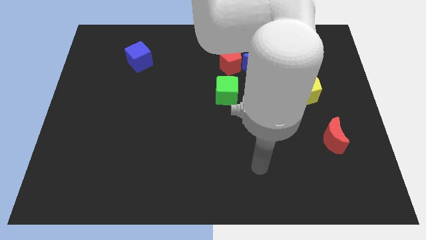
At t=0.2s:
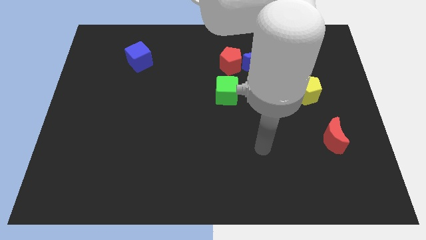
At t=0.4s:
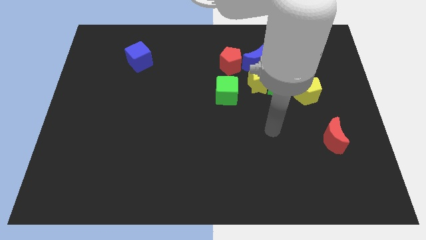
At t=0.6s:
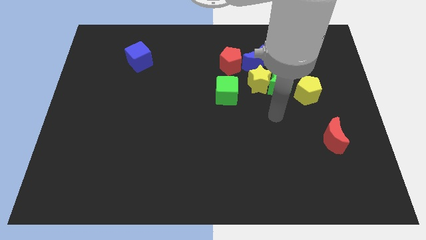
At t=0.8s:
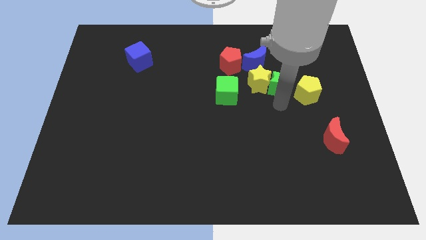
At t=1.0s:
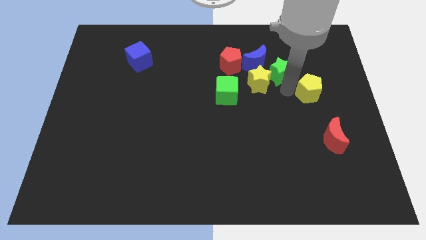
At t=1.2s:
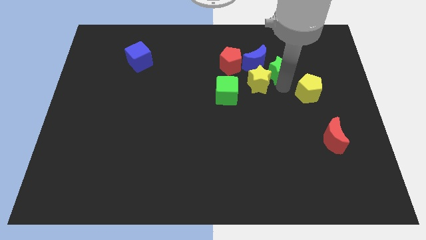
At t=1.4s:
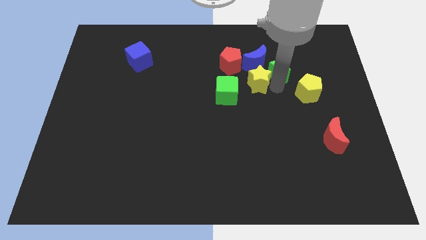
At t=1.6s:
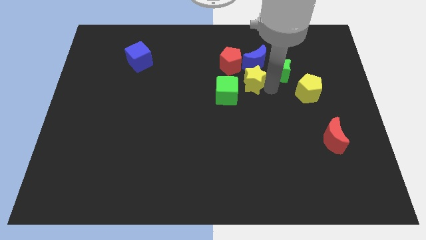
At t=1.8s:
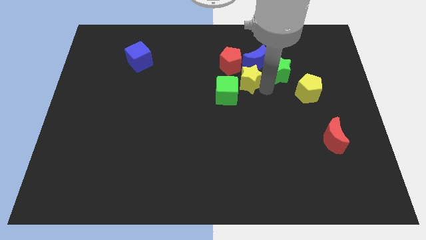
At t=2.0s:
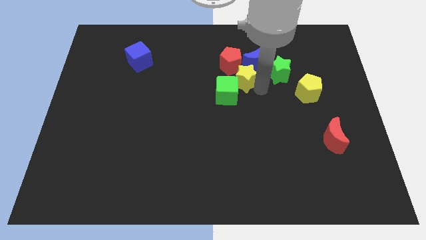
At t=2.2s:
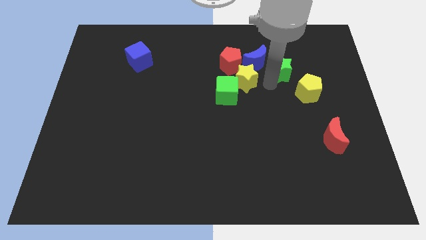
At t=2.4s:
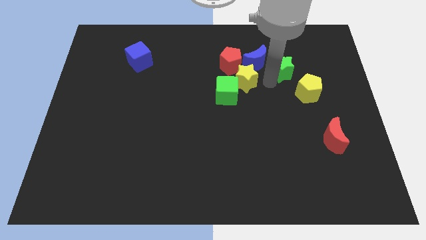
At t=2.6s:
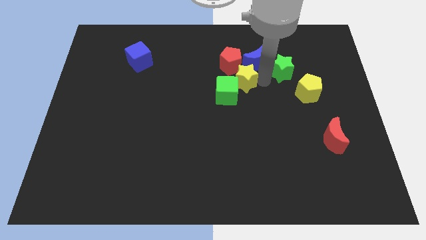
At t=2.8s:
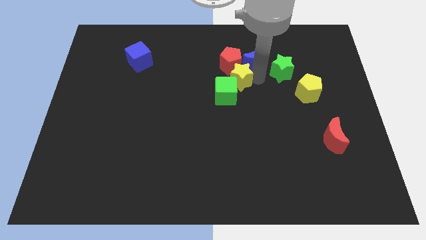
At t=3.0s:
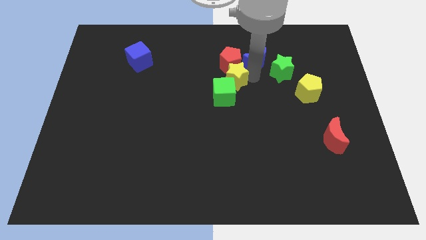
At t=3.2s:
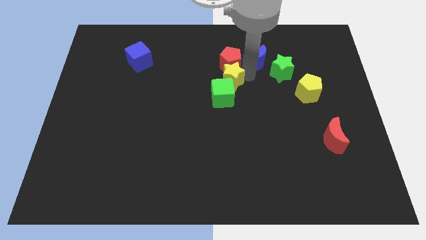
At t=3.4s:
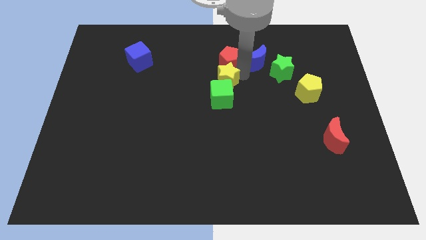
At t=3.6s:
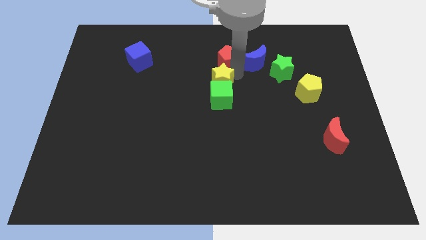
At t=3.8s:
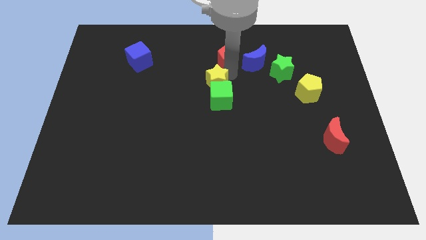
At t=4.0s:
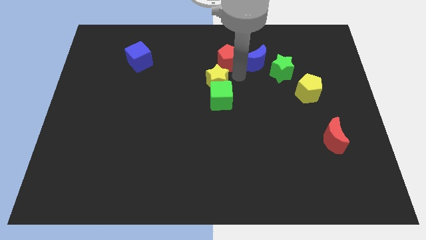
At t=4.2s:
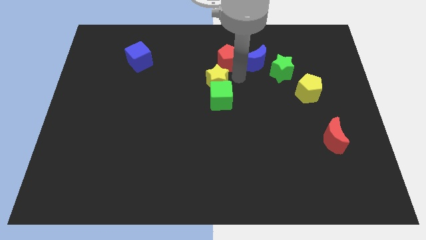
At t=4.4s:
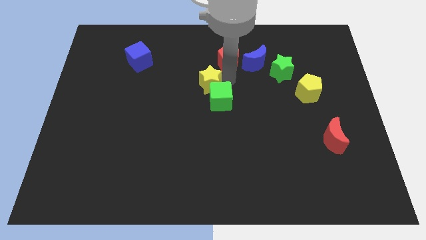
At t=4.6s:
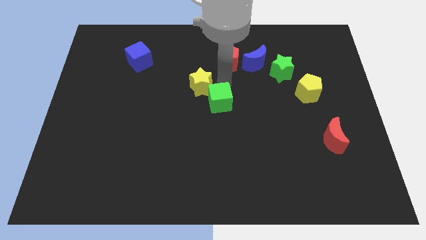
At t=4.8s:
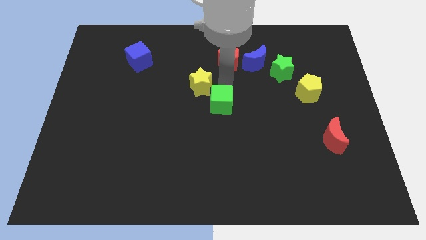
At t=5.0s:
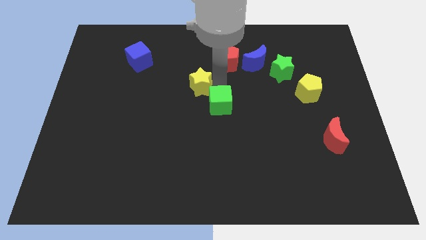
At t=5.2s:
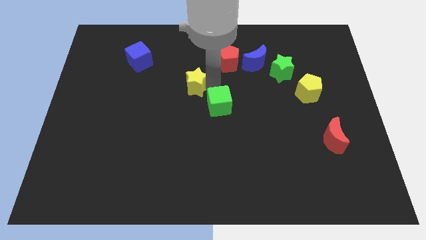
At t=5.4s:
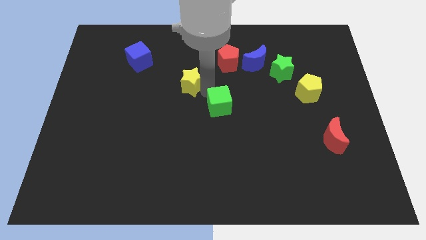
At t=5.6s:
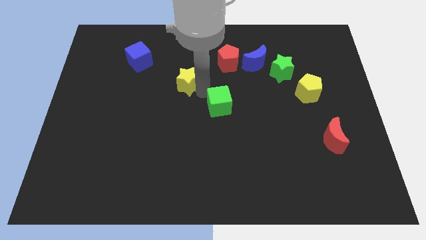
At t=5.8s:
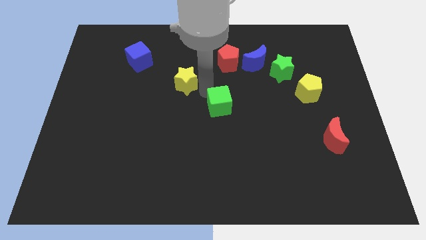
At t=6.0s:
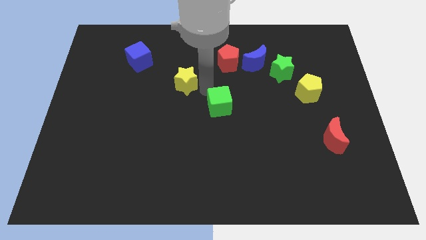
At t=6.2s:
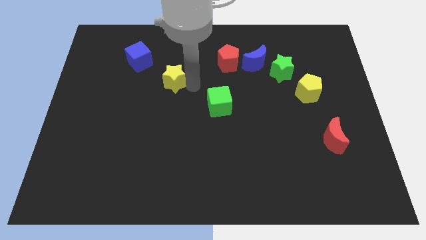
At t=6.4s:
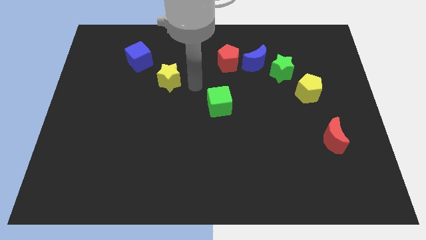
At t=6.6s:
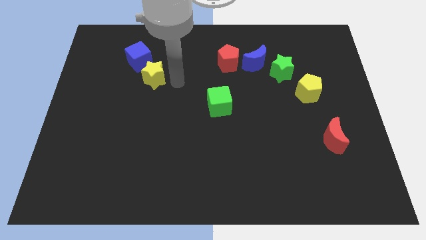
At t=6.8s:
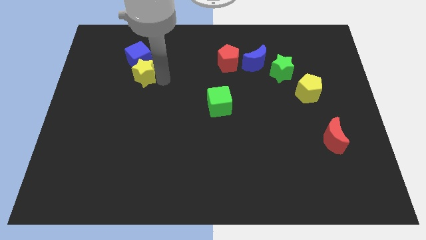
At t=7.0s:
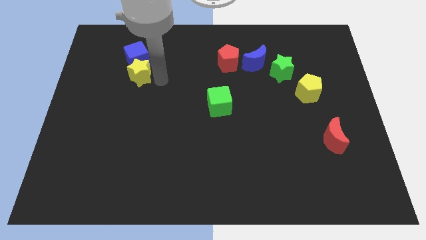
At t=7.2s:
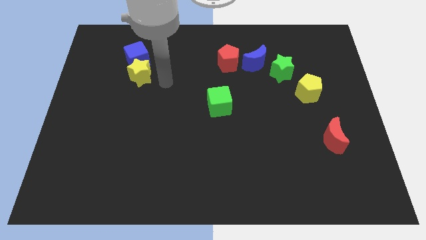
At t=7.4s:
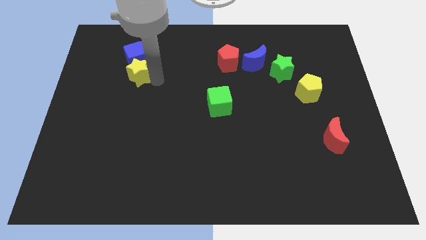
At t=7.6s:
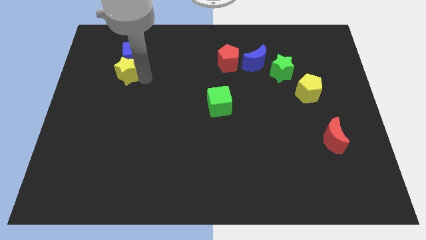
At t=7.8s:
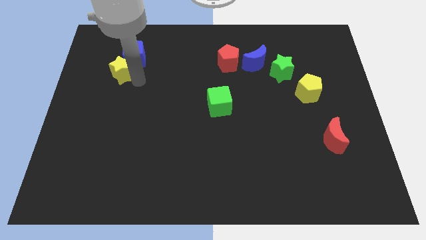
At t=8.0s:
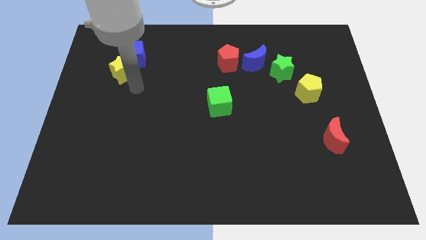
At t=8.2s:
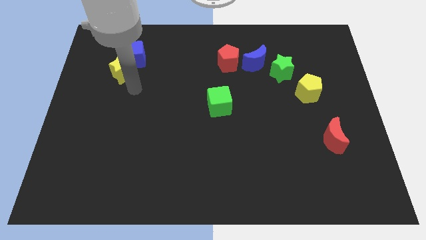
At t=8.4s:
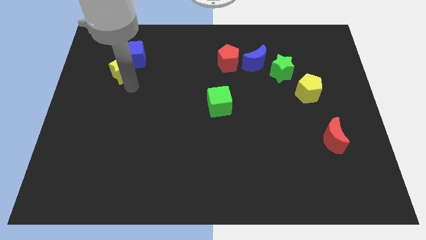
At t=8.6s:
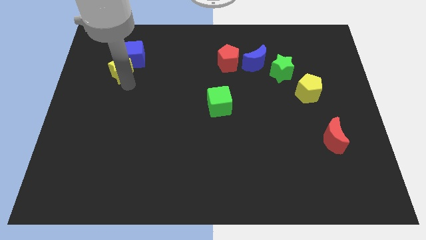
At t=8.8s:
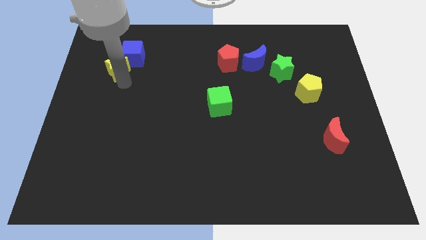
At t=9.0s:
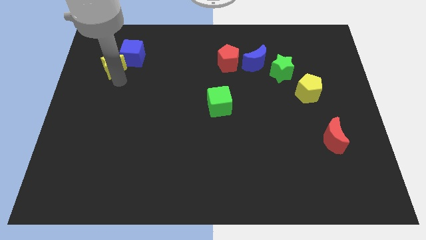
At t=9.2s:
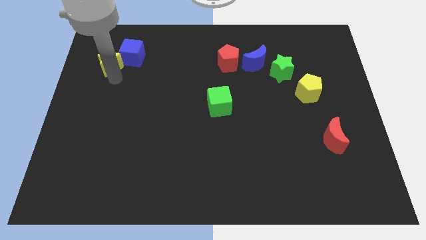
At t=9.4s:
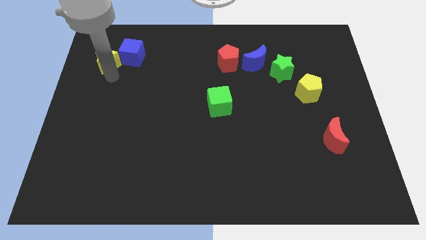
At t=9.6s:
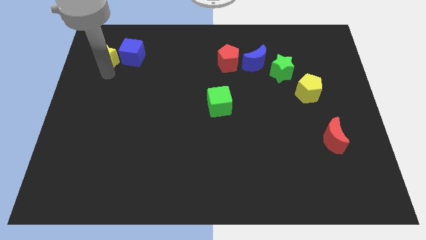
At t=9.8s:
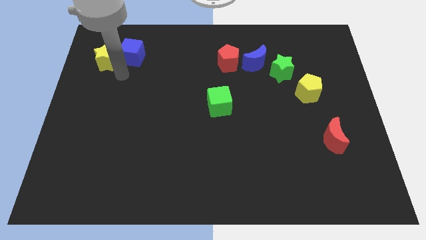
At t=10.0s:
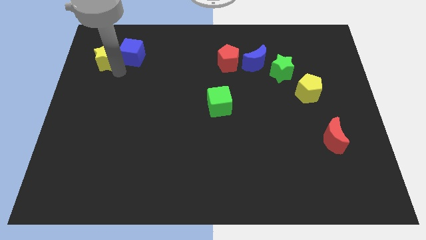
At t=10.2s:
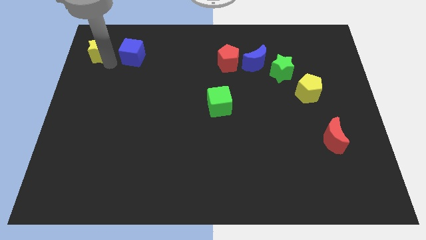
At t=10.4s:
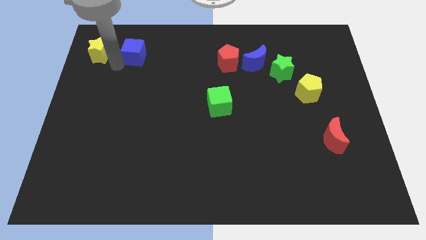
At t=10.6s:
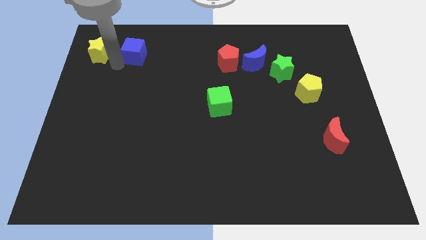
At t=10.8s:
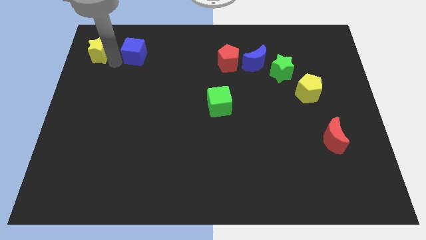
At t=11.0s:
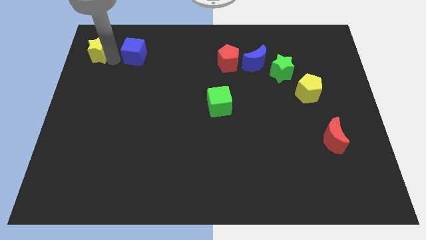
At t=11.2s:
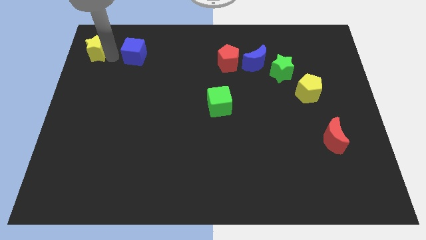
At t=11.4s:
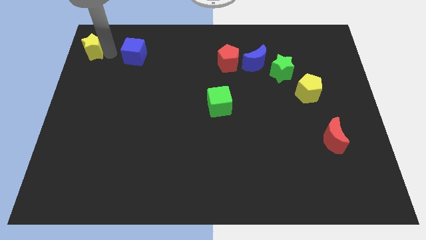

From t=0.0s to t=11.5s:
push the yellow star to the top left corner
